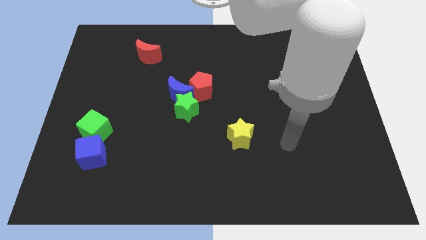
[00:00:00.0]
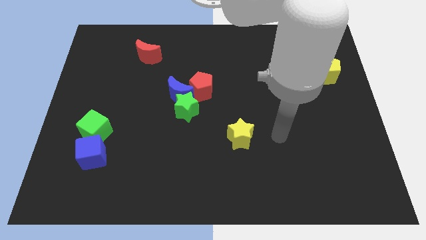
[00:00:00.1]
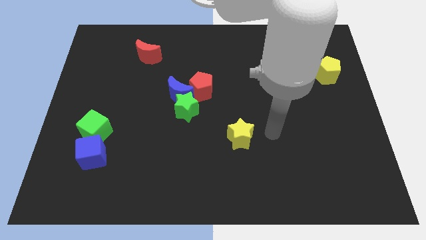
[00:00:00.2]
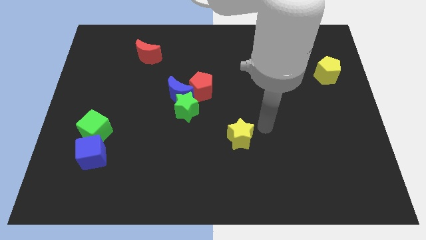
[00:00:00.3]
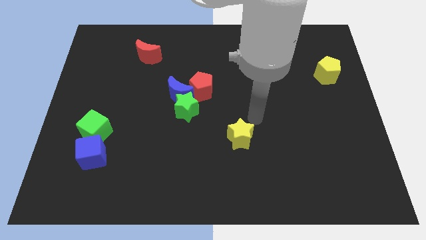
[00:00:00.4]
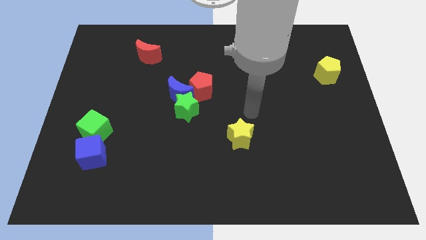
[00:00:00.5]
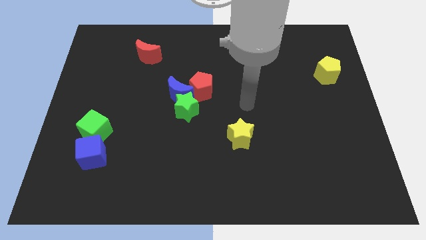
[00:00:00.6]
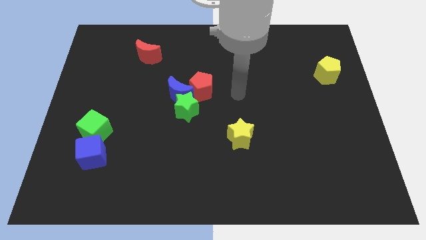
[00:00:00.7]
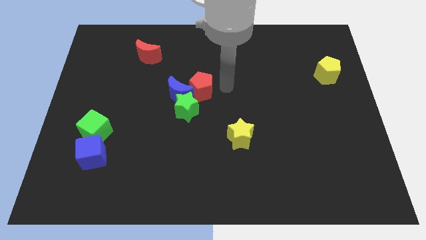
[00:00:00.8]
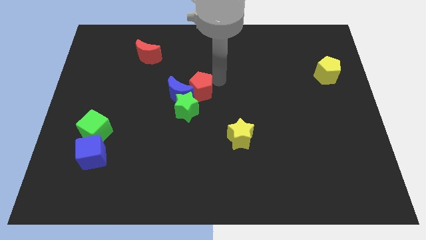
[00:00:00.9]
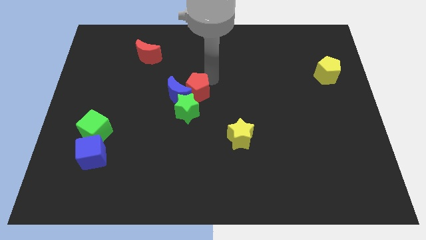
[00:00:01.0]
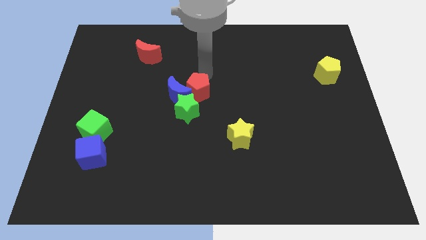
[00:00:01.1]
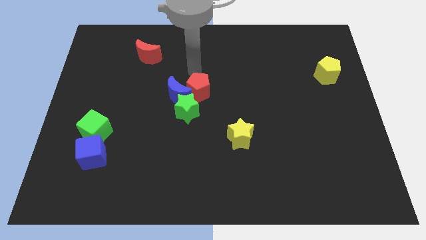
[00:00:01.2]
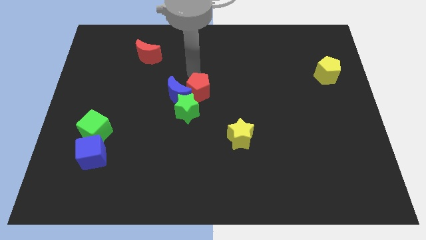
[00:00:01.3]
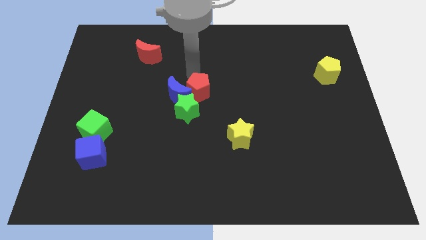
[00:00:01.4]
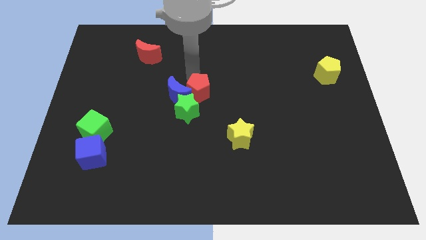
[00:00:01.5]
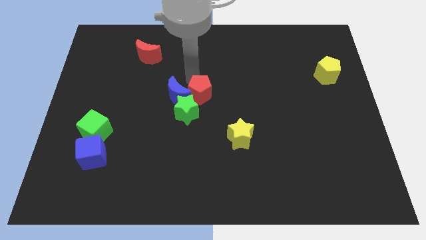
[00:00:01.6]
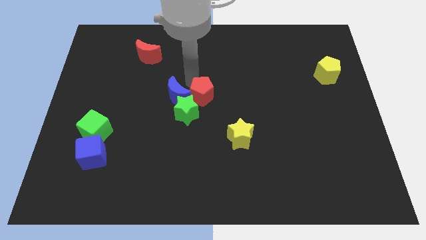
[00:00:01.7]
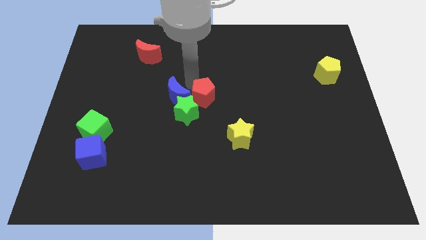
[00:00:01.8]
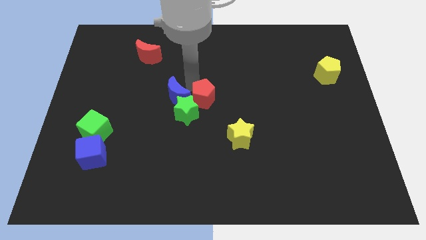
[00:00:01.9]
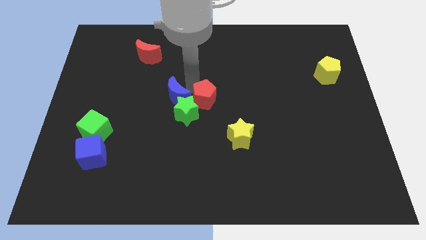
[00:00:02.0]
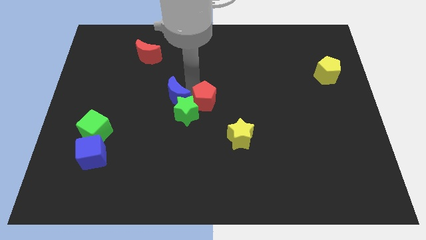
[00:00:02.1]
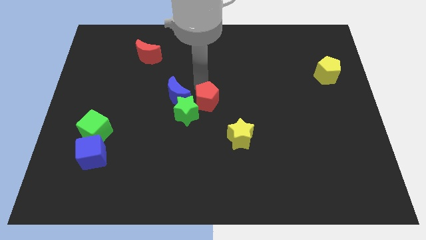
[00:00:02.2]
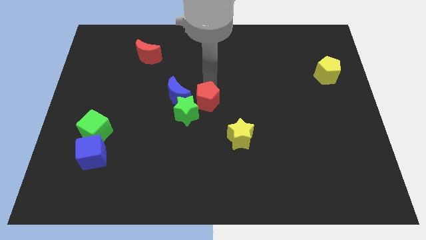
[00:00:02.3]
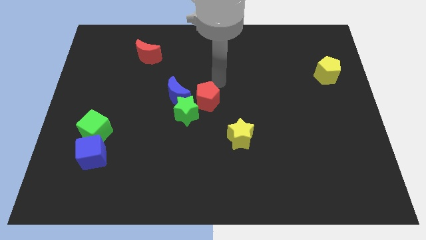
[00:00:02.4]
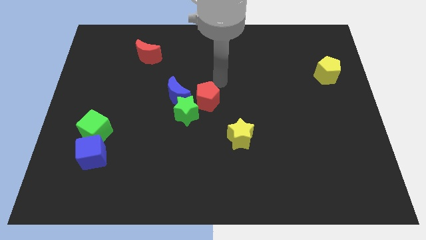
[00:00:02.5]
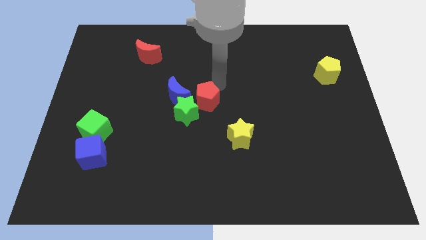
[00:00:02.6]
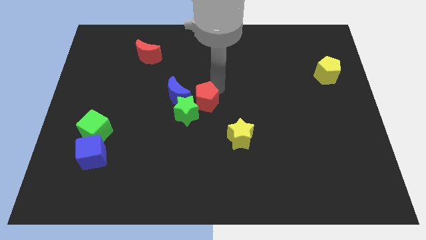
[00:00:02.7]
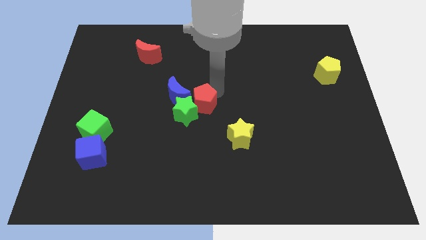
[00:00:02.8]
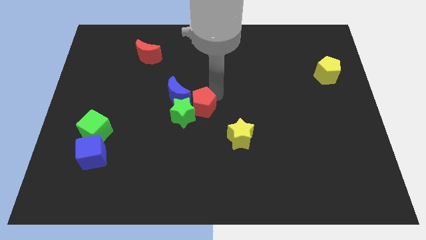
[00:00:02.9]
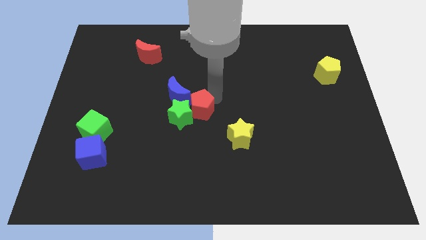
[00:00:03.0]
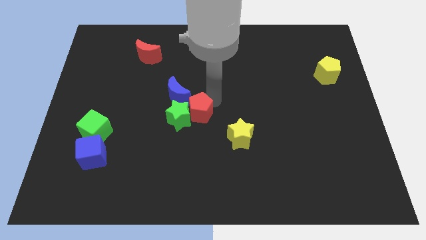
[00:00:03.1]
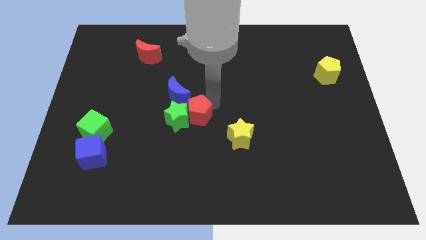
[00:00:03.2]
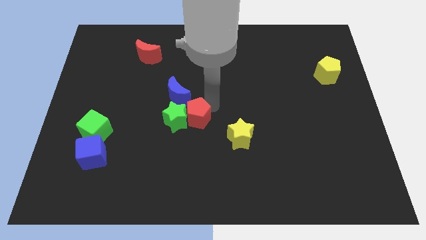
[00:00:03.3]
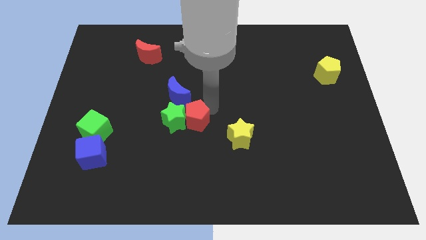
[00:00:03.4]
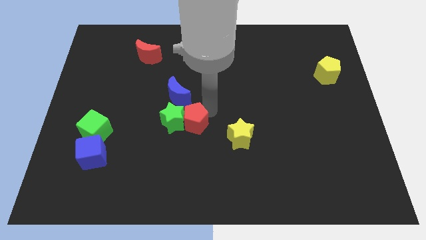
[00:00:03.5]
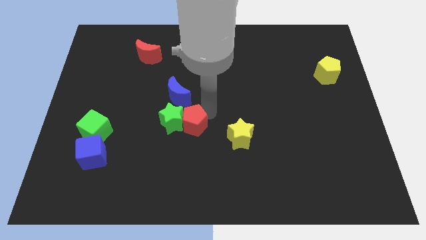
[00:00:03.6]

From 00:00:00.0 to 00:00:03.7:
push the red pentagon downwards and left diagonally slightly

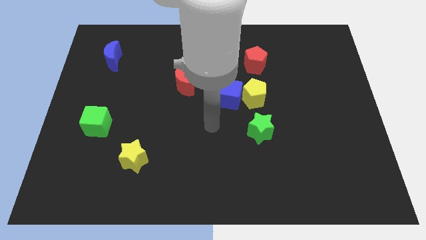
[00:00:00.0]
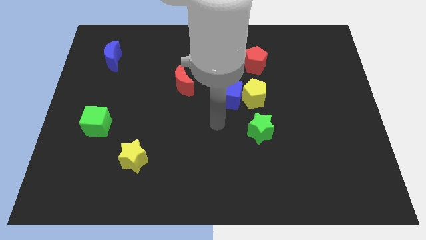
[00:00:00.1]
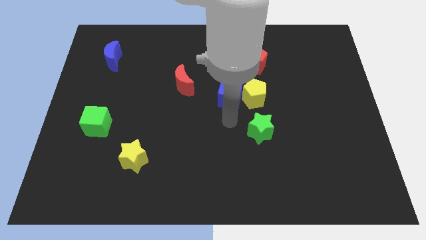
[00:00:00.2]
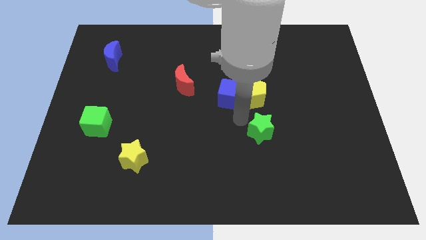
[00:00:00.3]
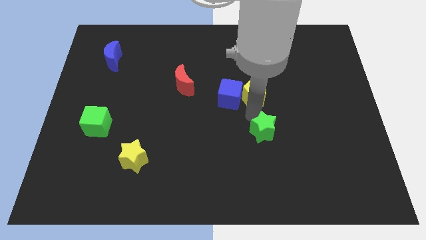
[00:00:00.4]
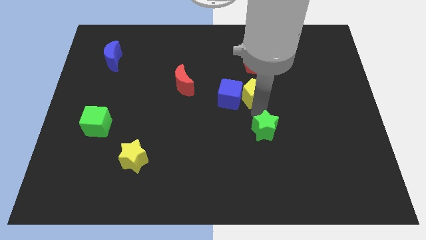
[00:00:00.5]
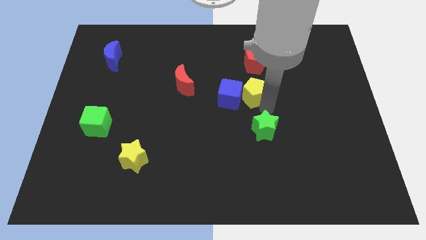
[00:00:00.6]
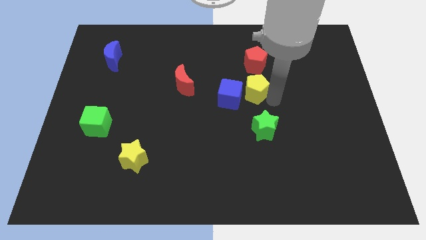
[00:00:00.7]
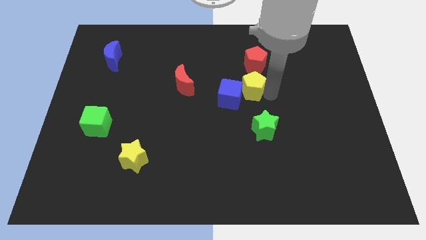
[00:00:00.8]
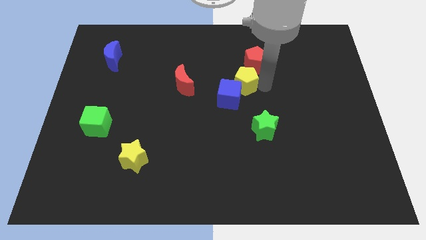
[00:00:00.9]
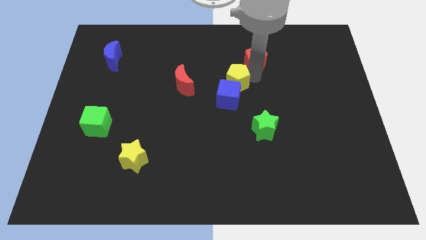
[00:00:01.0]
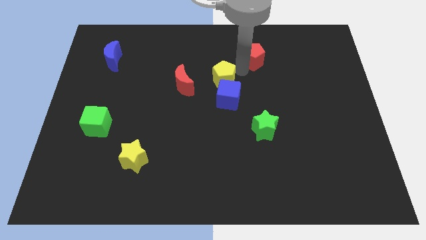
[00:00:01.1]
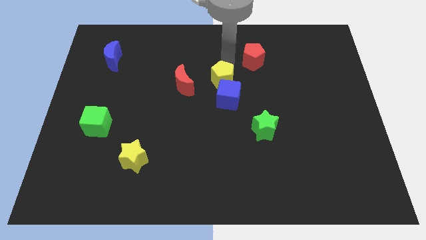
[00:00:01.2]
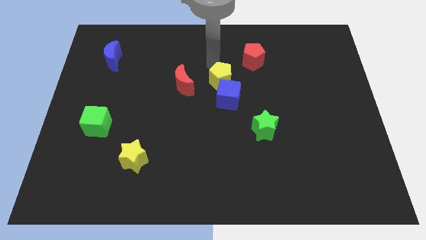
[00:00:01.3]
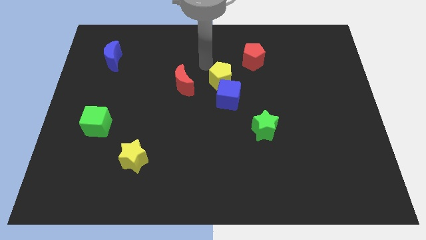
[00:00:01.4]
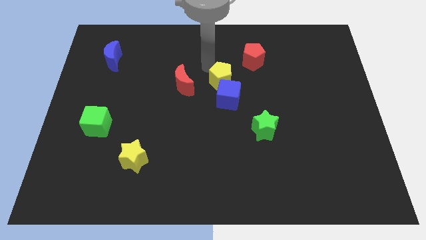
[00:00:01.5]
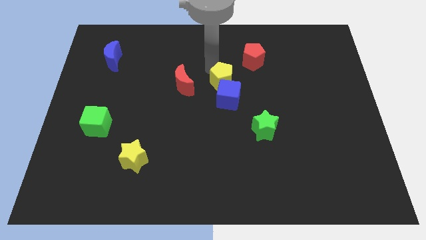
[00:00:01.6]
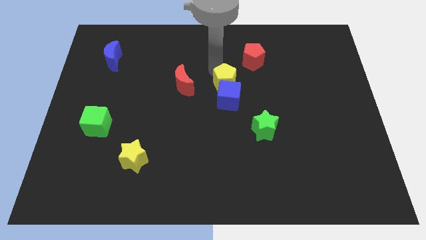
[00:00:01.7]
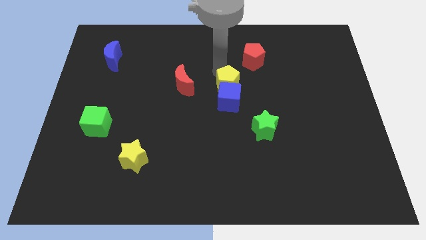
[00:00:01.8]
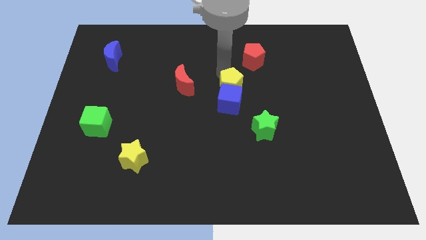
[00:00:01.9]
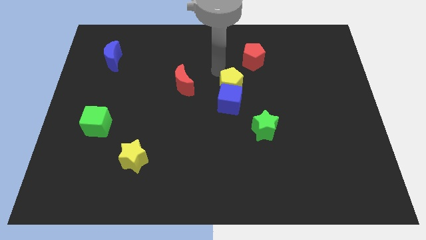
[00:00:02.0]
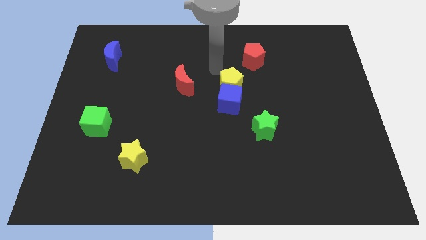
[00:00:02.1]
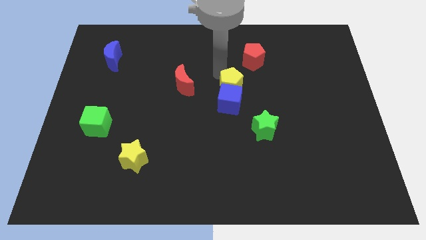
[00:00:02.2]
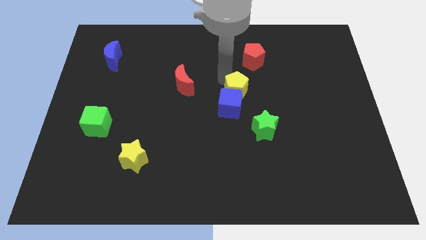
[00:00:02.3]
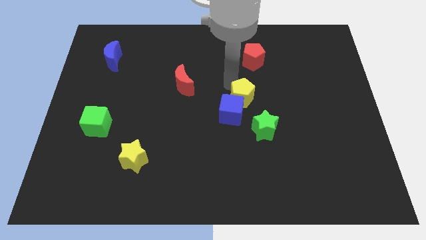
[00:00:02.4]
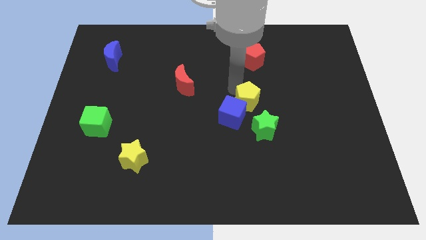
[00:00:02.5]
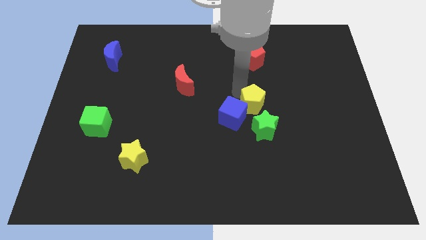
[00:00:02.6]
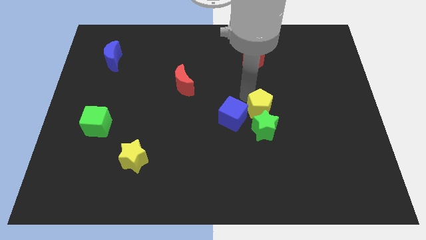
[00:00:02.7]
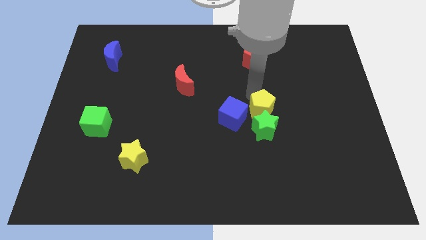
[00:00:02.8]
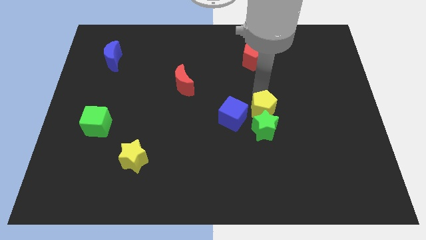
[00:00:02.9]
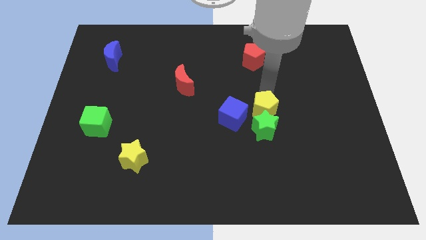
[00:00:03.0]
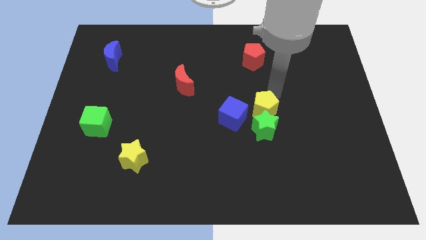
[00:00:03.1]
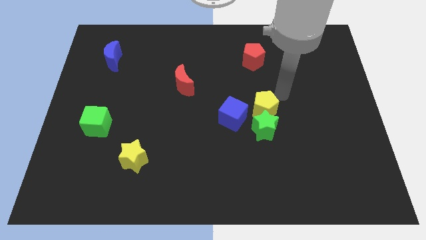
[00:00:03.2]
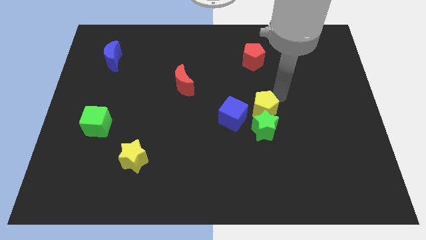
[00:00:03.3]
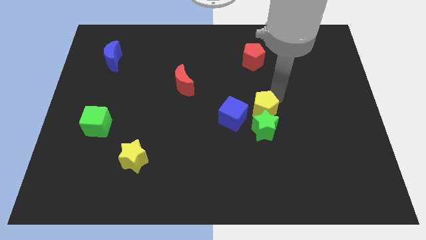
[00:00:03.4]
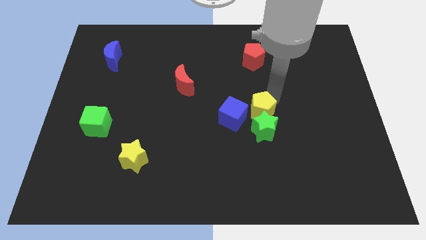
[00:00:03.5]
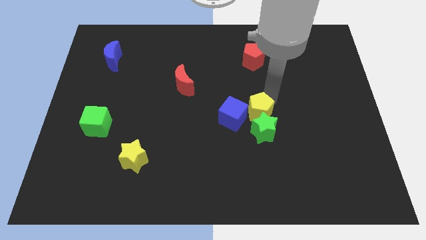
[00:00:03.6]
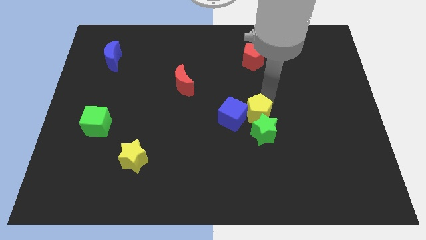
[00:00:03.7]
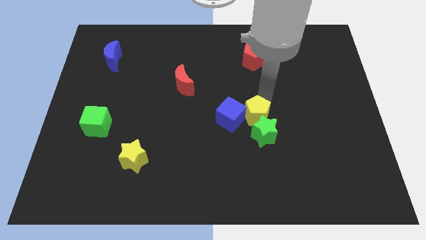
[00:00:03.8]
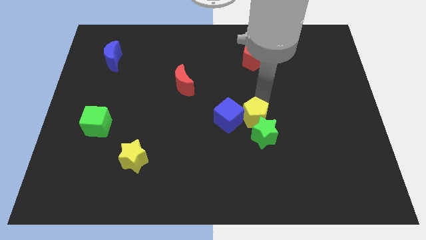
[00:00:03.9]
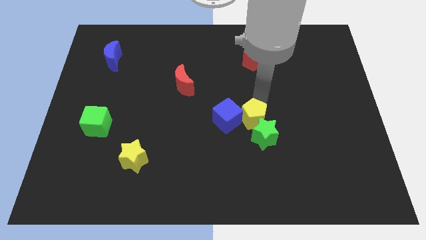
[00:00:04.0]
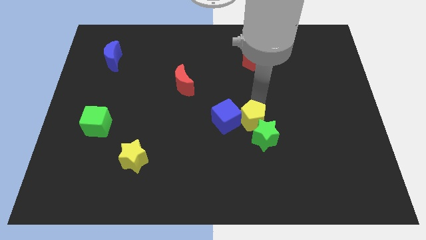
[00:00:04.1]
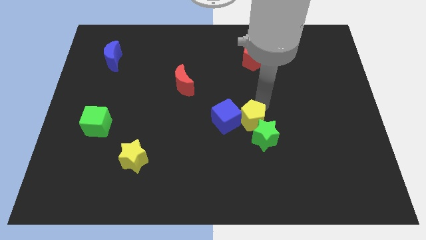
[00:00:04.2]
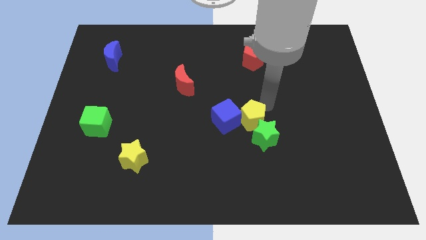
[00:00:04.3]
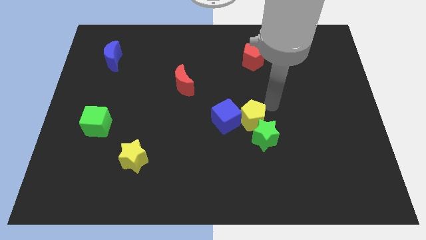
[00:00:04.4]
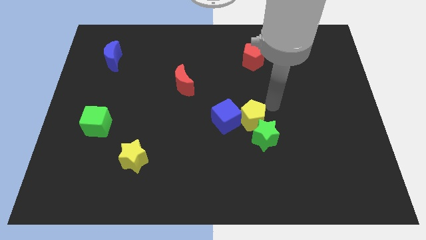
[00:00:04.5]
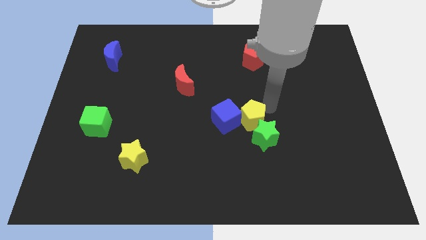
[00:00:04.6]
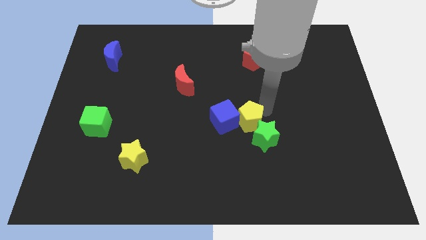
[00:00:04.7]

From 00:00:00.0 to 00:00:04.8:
slightly move the yellow pentagon down

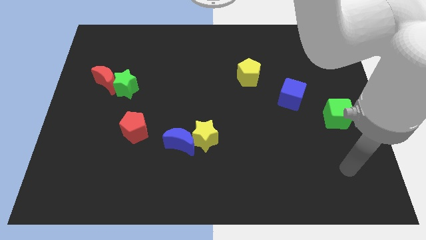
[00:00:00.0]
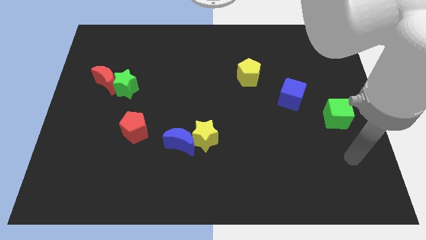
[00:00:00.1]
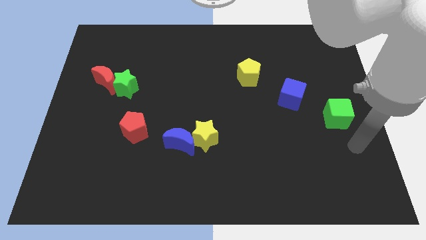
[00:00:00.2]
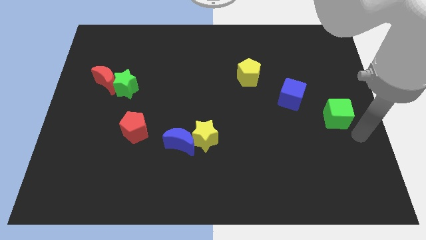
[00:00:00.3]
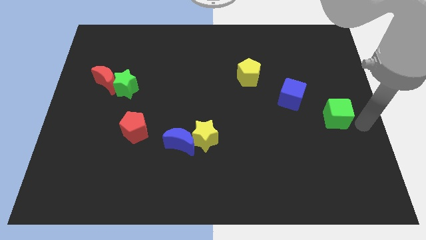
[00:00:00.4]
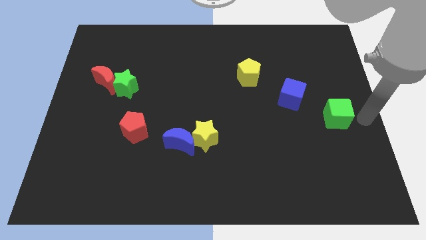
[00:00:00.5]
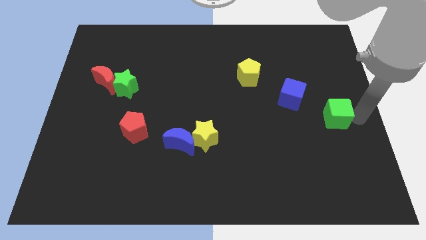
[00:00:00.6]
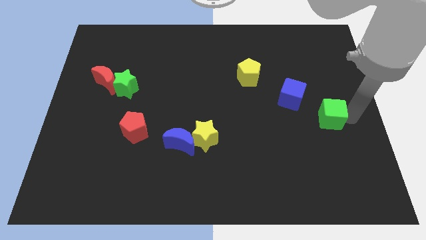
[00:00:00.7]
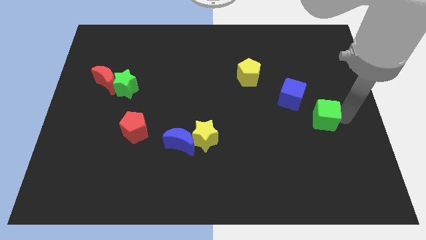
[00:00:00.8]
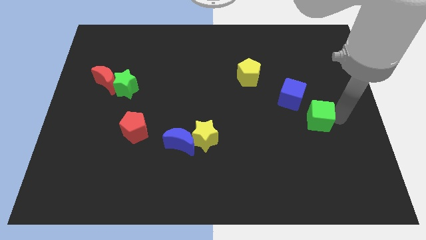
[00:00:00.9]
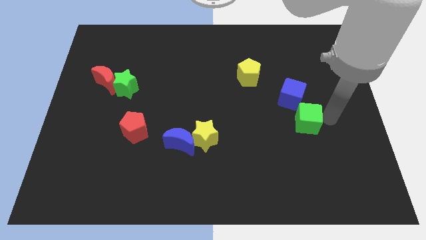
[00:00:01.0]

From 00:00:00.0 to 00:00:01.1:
slide the green cube slightly left
